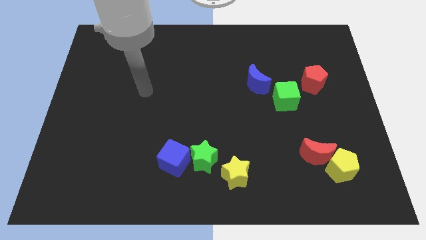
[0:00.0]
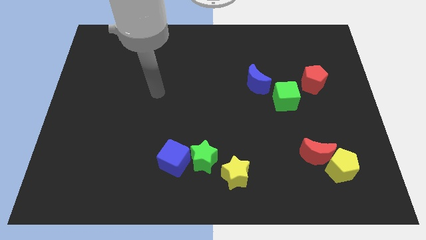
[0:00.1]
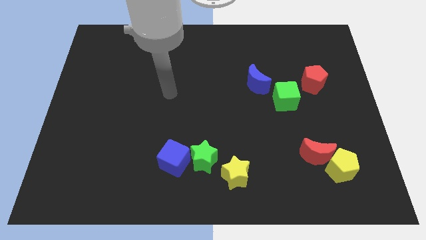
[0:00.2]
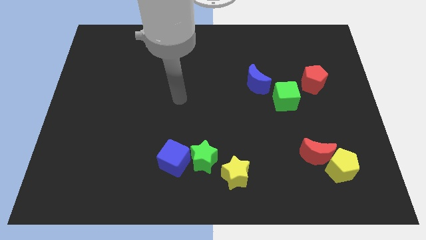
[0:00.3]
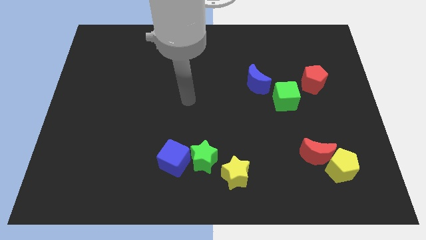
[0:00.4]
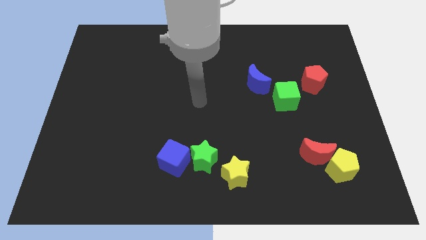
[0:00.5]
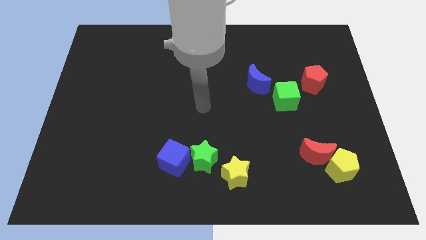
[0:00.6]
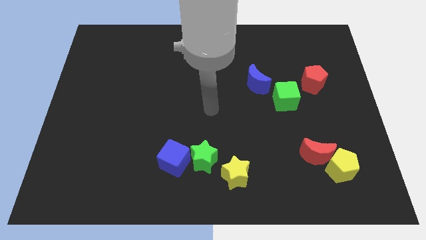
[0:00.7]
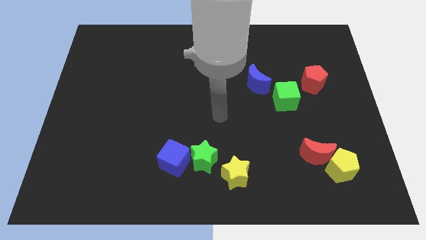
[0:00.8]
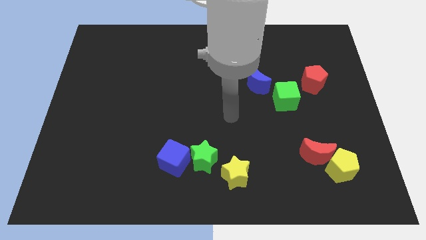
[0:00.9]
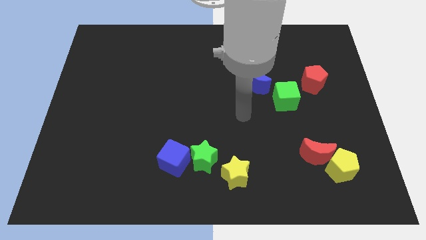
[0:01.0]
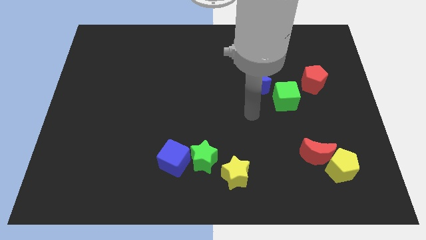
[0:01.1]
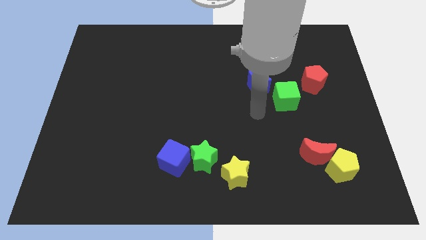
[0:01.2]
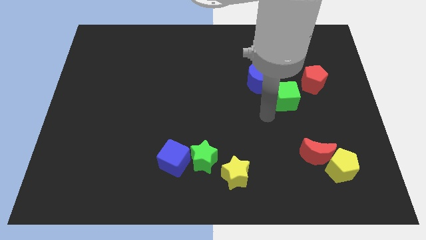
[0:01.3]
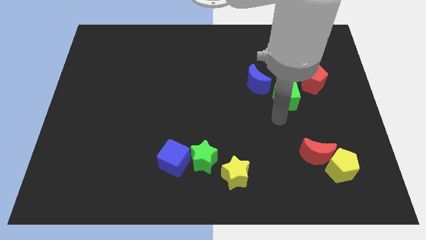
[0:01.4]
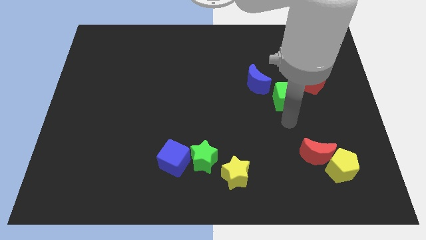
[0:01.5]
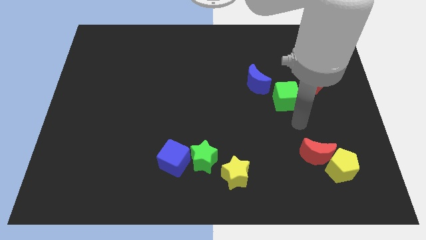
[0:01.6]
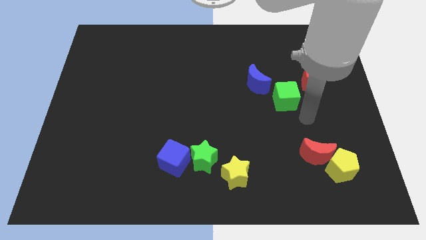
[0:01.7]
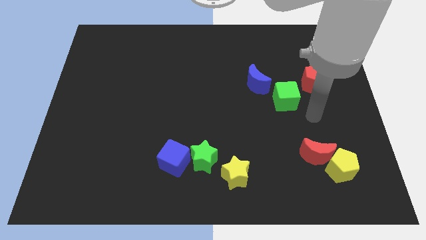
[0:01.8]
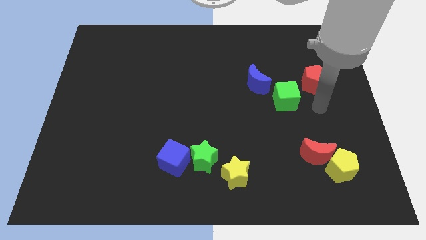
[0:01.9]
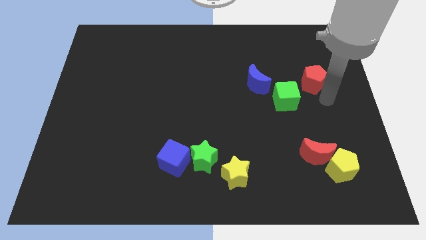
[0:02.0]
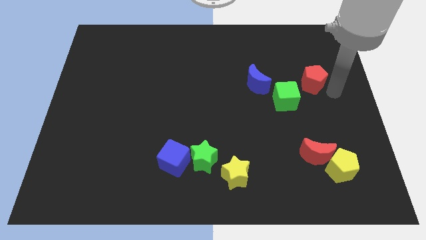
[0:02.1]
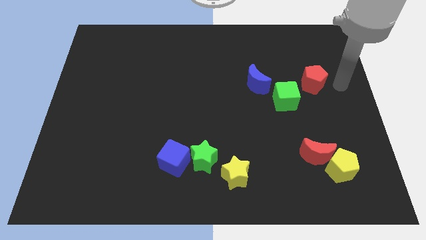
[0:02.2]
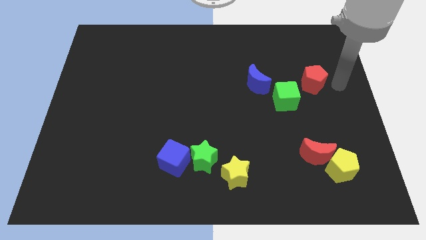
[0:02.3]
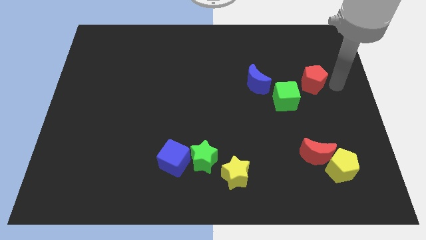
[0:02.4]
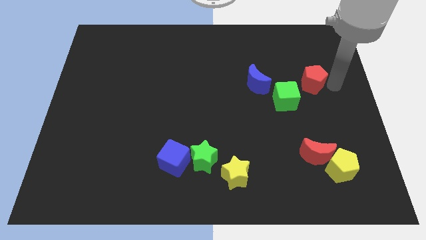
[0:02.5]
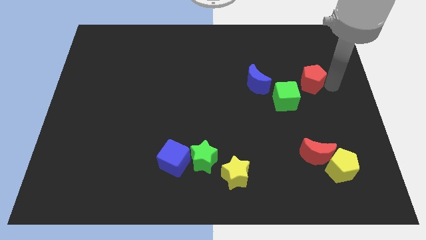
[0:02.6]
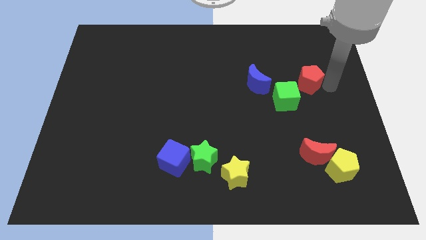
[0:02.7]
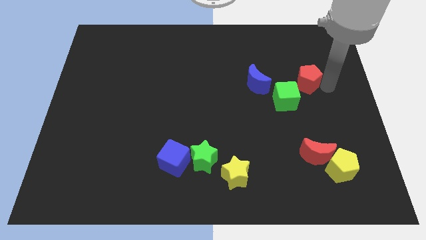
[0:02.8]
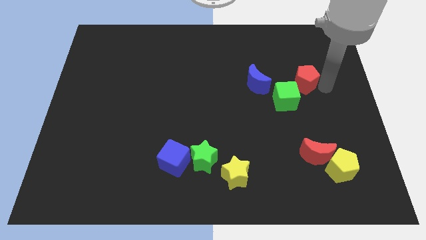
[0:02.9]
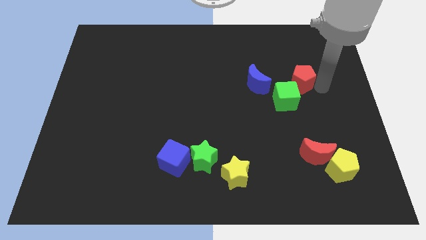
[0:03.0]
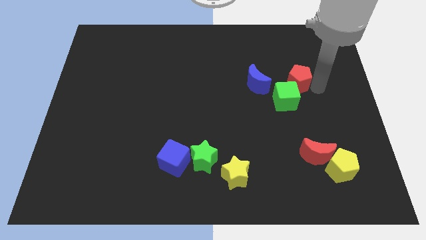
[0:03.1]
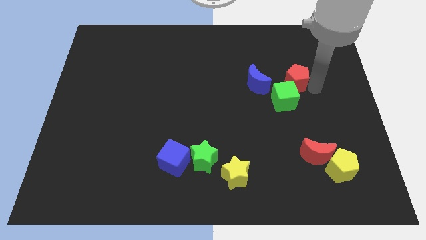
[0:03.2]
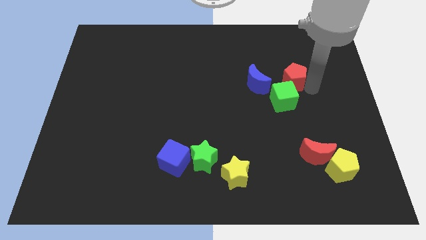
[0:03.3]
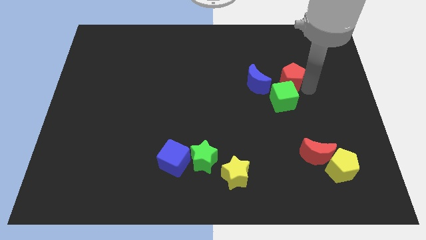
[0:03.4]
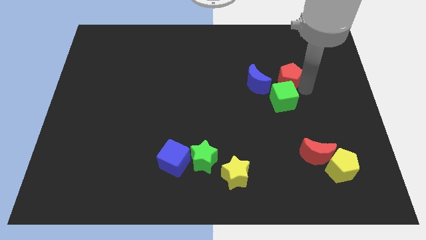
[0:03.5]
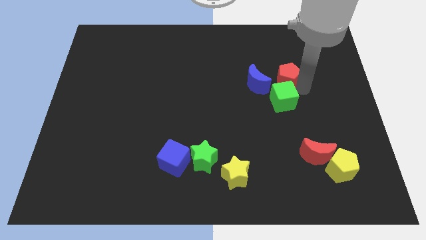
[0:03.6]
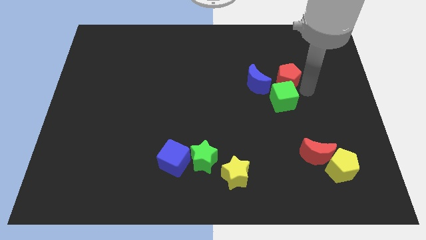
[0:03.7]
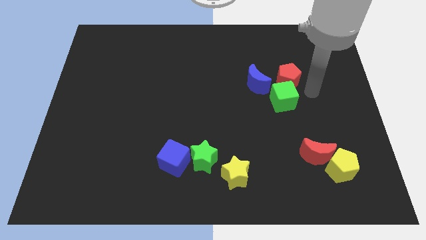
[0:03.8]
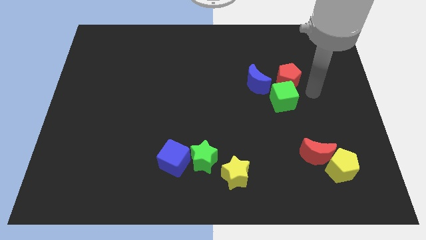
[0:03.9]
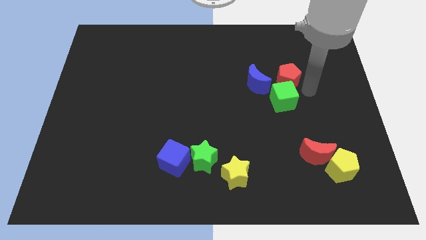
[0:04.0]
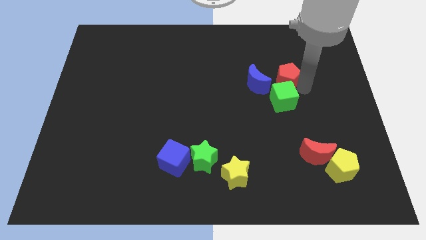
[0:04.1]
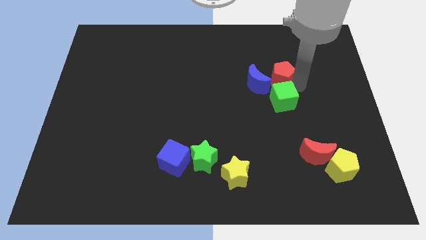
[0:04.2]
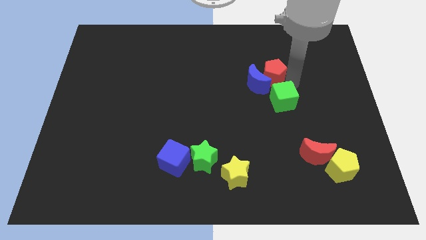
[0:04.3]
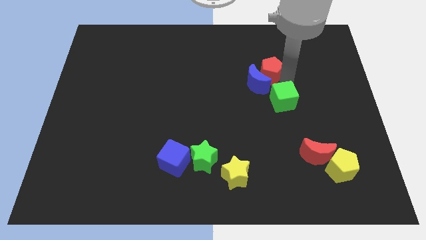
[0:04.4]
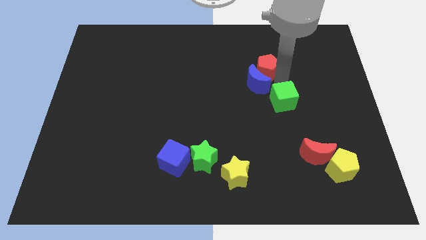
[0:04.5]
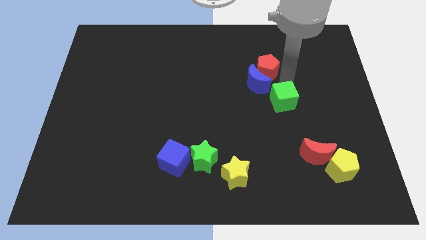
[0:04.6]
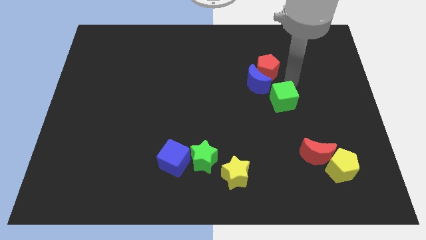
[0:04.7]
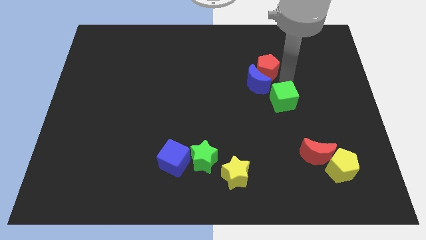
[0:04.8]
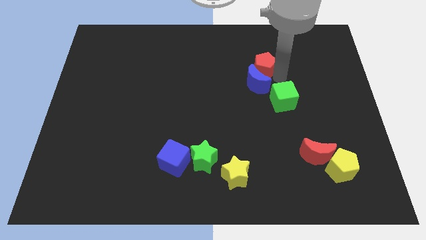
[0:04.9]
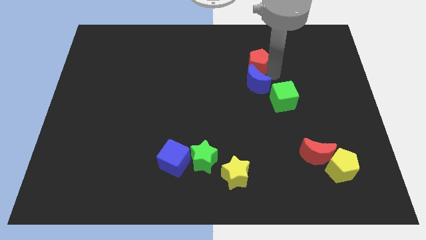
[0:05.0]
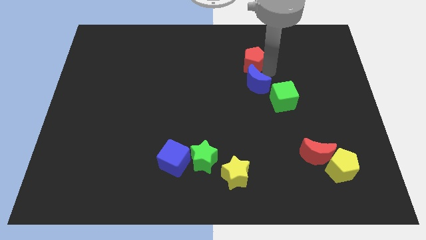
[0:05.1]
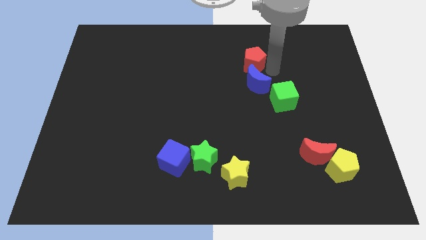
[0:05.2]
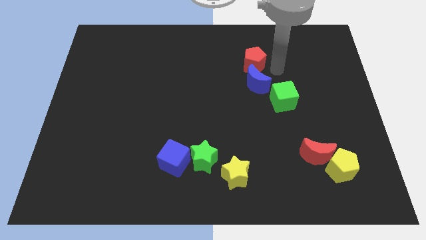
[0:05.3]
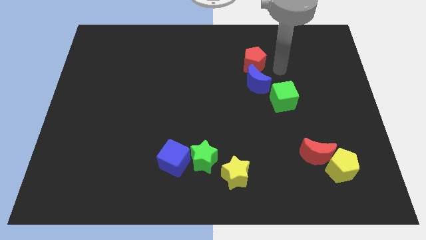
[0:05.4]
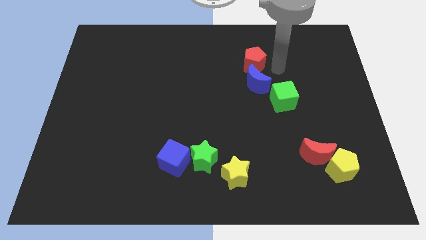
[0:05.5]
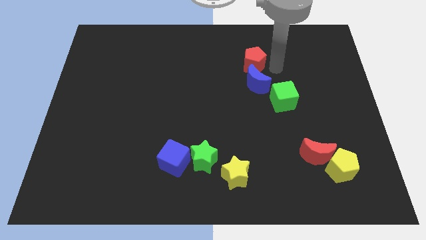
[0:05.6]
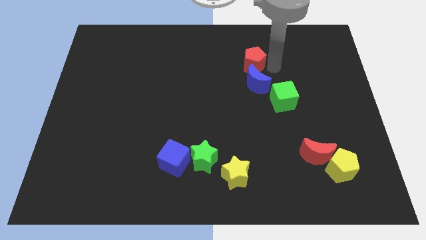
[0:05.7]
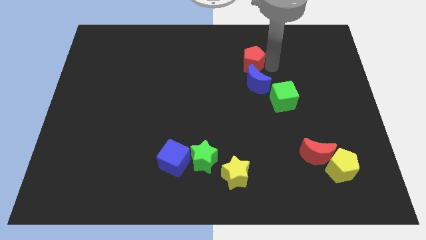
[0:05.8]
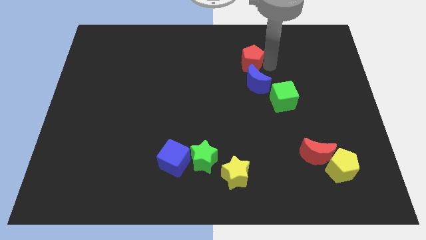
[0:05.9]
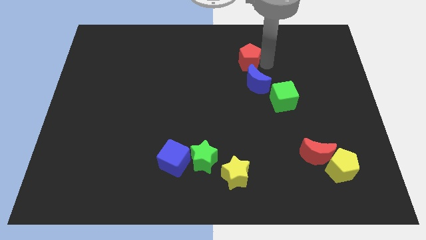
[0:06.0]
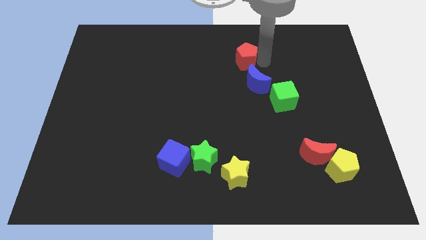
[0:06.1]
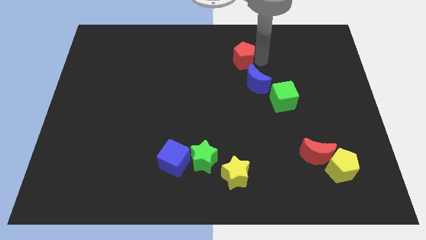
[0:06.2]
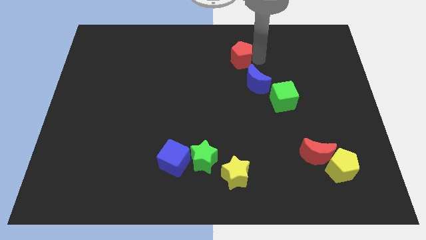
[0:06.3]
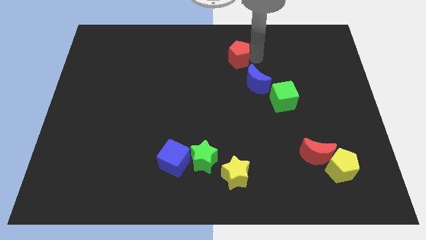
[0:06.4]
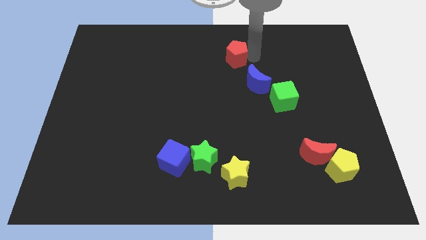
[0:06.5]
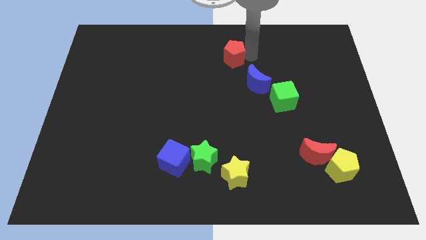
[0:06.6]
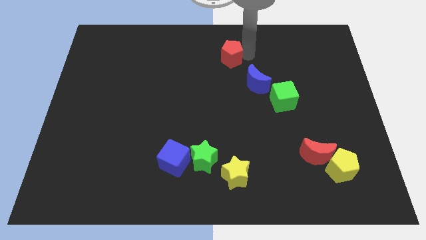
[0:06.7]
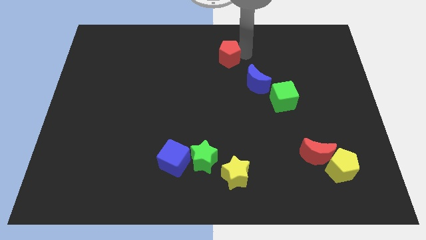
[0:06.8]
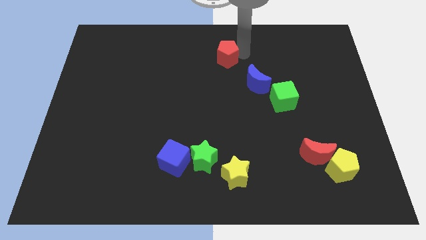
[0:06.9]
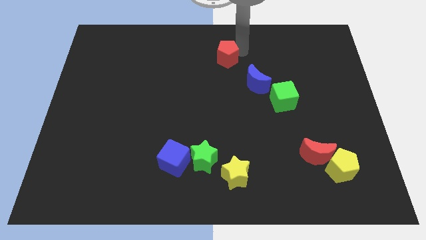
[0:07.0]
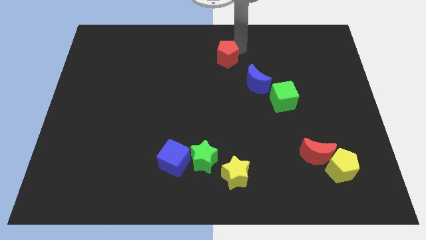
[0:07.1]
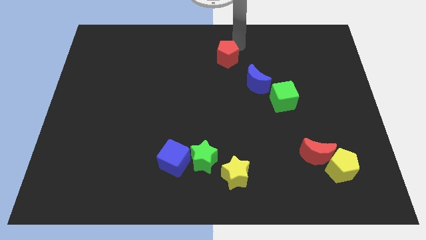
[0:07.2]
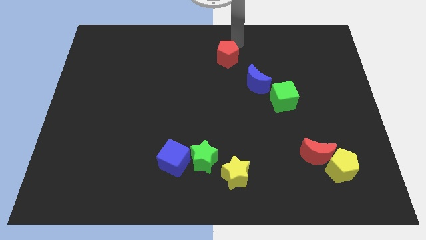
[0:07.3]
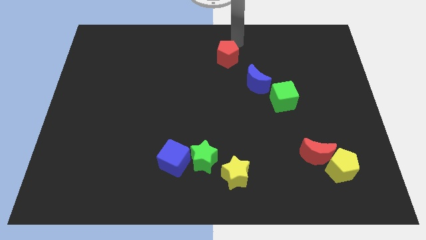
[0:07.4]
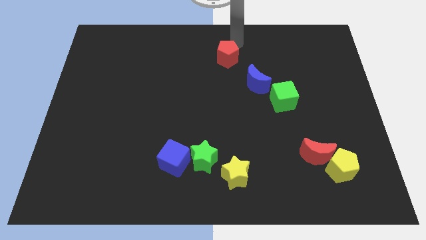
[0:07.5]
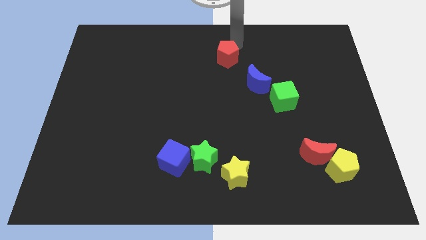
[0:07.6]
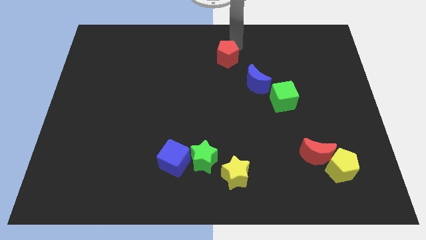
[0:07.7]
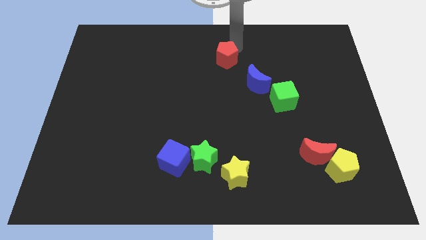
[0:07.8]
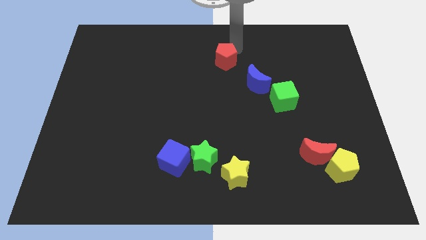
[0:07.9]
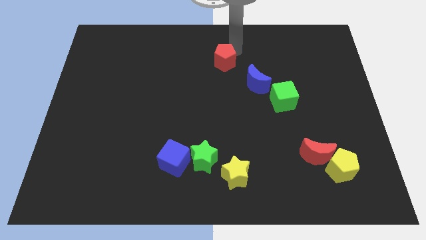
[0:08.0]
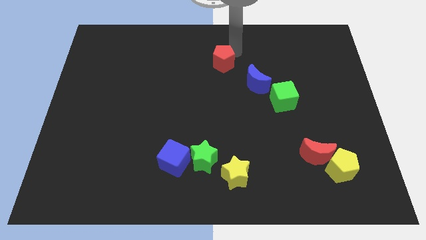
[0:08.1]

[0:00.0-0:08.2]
push the red pentagon left
